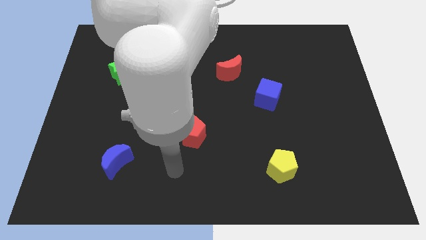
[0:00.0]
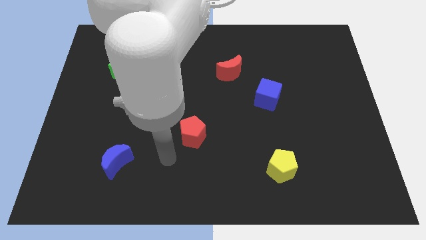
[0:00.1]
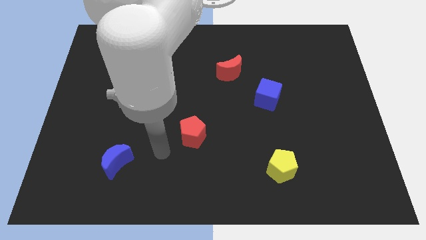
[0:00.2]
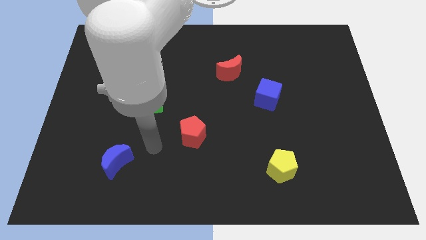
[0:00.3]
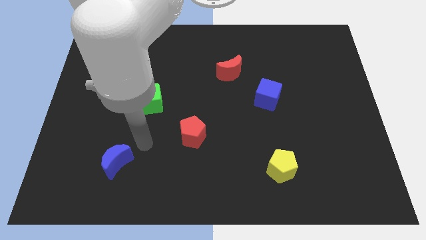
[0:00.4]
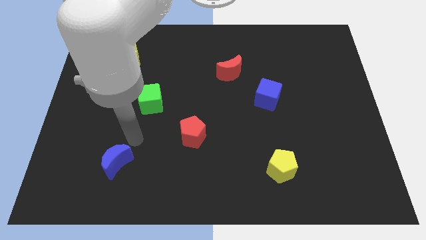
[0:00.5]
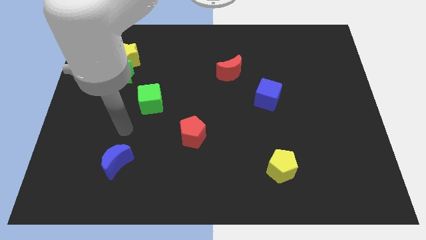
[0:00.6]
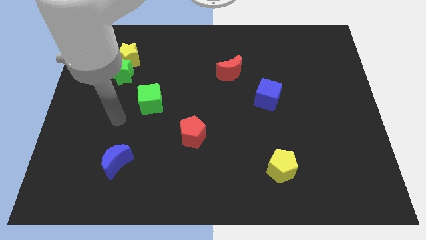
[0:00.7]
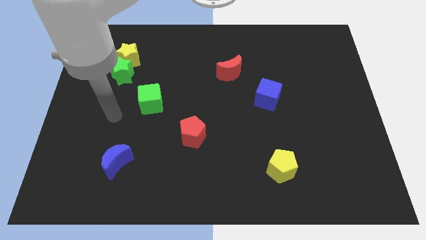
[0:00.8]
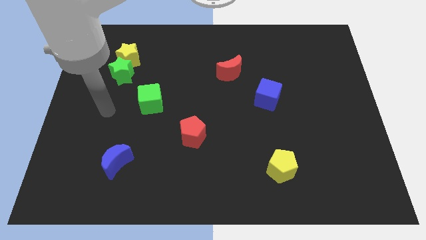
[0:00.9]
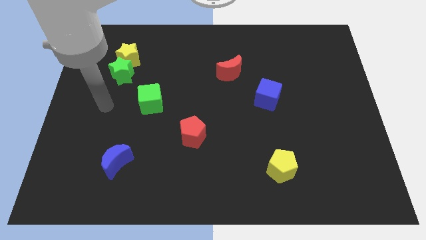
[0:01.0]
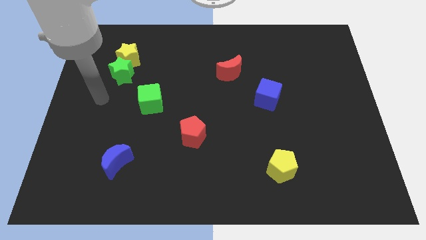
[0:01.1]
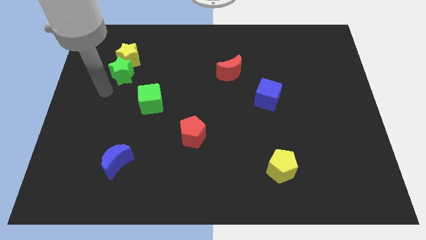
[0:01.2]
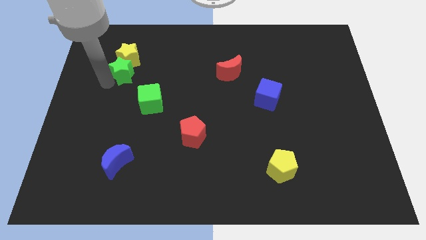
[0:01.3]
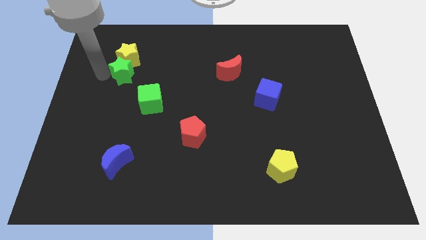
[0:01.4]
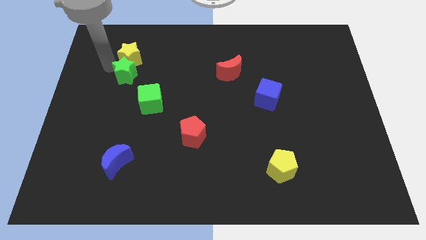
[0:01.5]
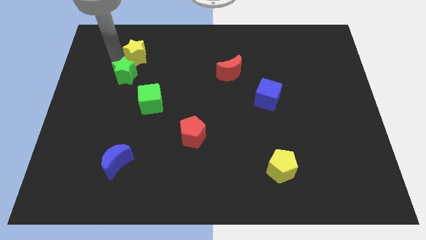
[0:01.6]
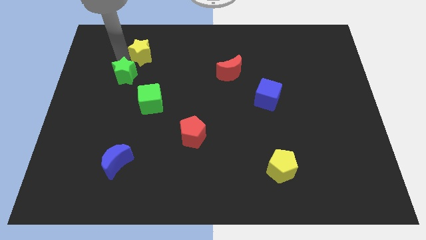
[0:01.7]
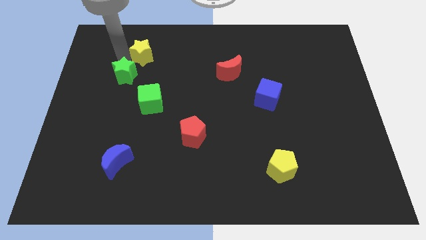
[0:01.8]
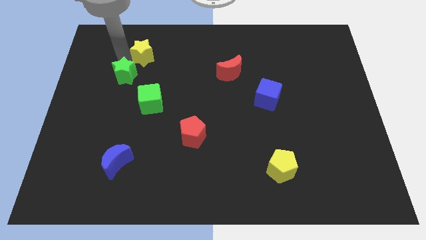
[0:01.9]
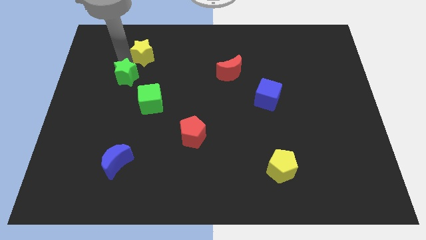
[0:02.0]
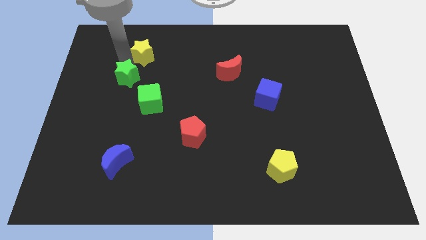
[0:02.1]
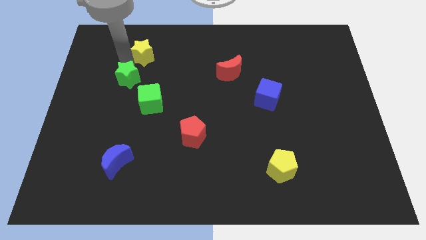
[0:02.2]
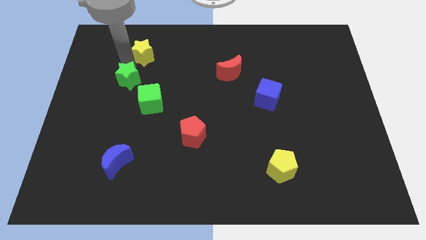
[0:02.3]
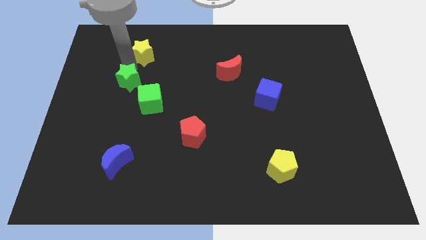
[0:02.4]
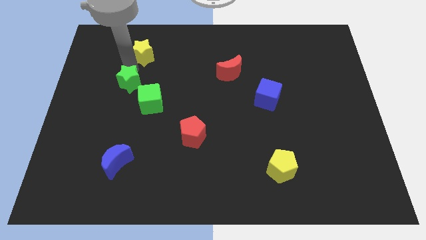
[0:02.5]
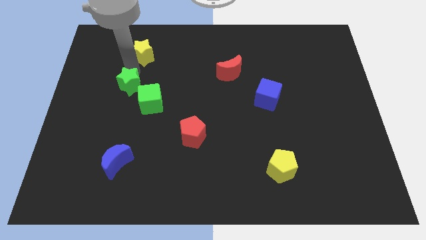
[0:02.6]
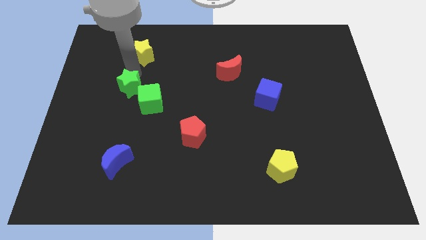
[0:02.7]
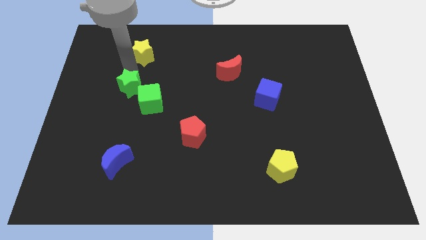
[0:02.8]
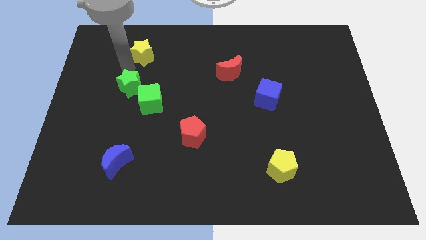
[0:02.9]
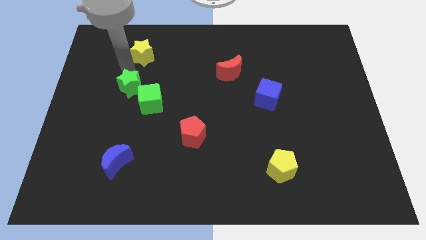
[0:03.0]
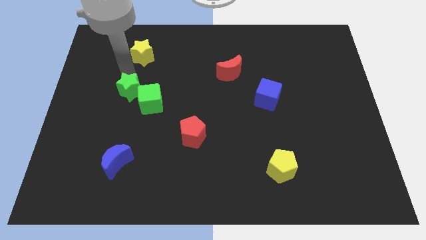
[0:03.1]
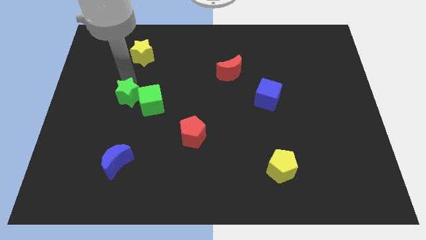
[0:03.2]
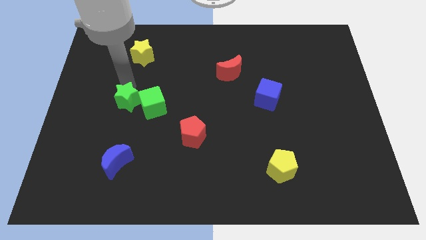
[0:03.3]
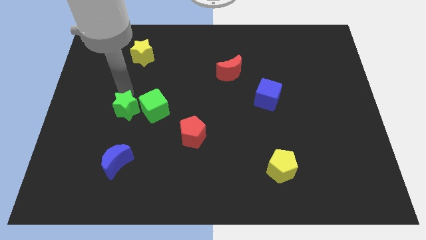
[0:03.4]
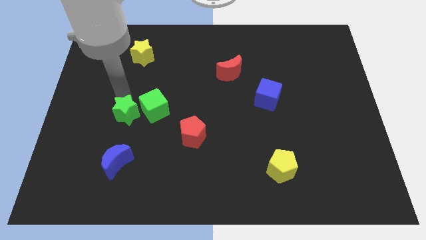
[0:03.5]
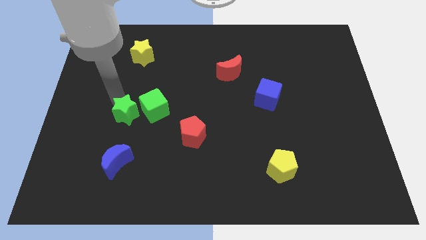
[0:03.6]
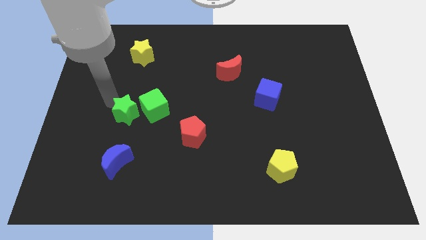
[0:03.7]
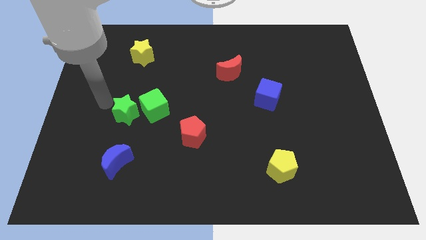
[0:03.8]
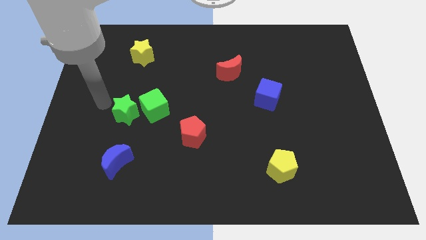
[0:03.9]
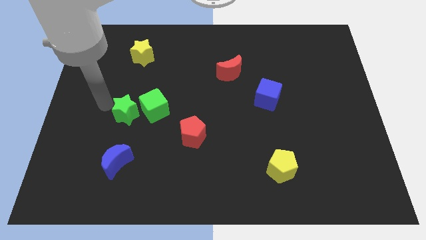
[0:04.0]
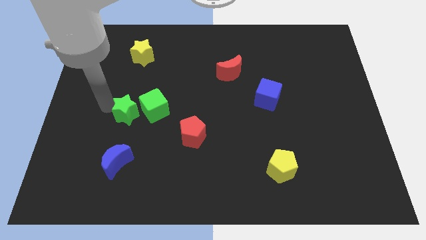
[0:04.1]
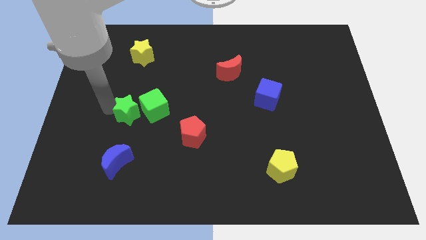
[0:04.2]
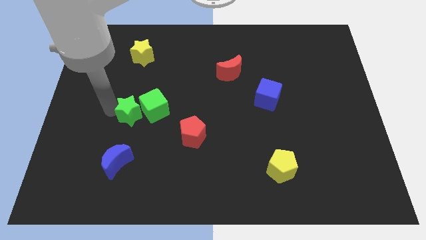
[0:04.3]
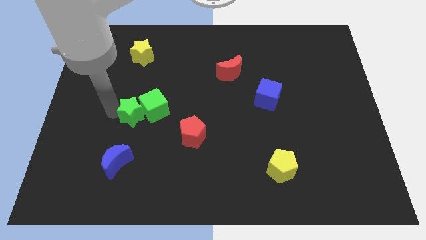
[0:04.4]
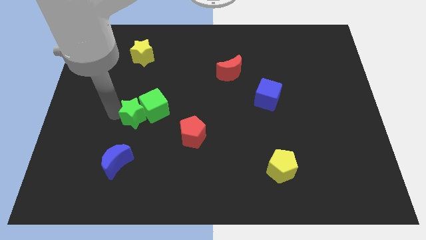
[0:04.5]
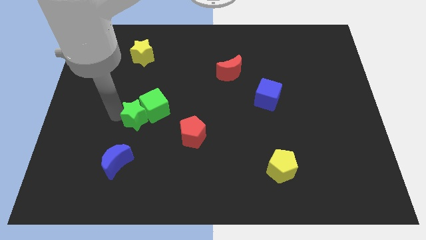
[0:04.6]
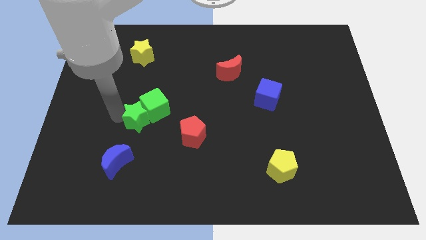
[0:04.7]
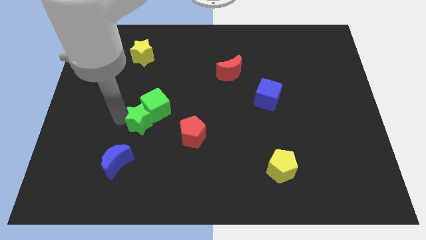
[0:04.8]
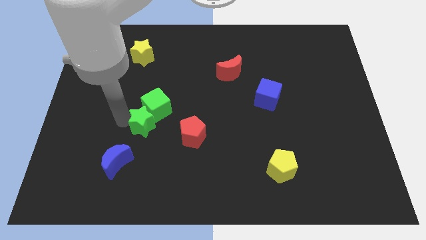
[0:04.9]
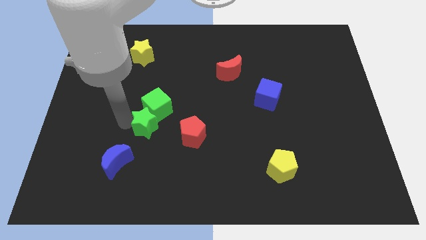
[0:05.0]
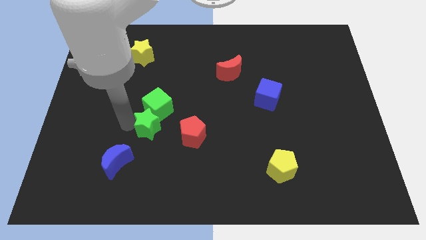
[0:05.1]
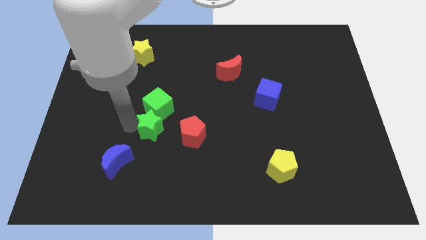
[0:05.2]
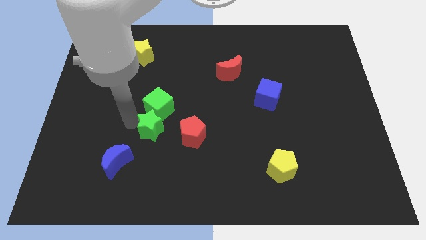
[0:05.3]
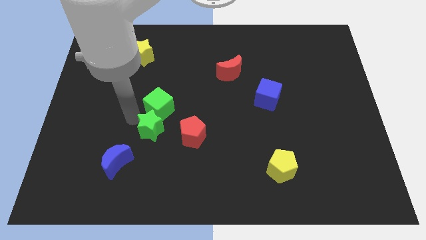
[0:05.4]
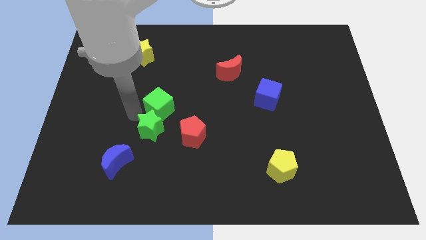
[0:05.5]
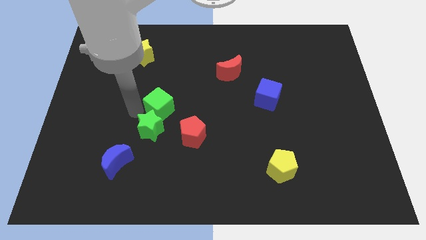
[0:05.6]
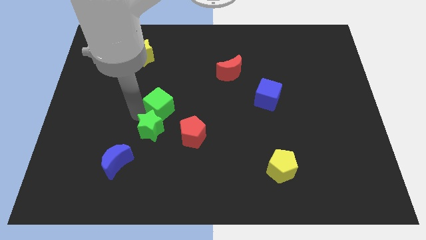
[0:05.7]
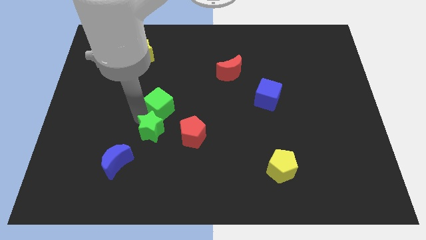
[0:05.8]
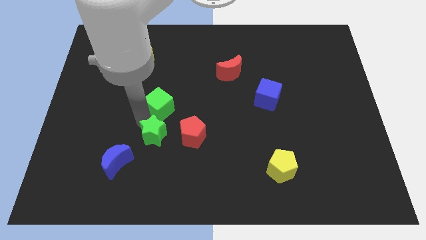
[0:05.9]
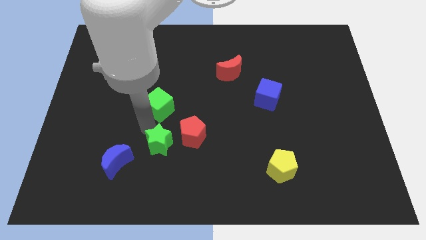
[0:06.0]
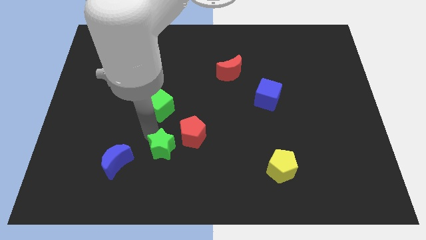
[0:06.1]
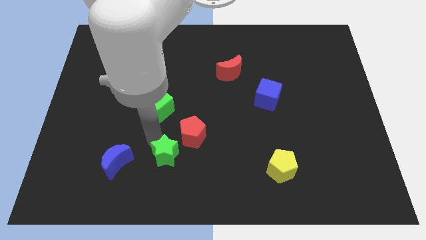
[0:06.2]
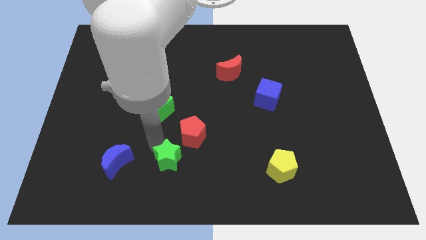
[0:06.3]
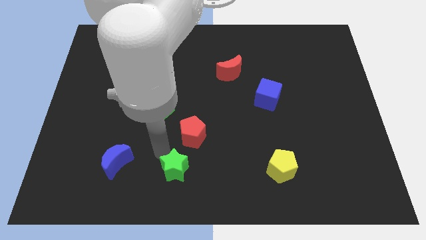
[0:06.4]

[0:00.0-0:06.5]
push the green star to the bottom side
